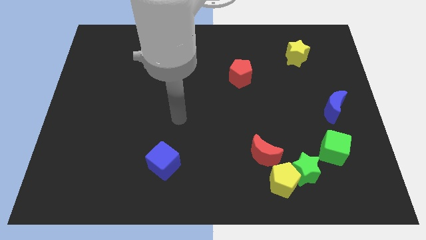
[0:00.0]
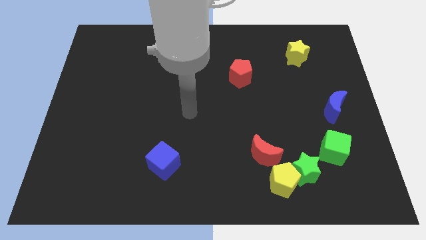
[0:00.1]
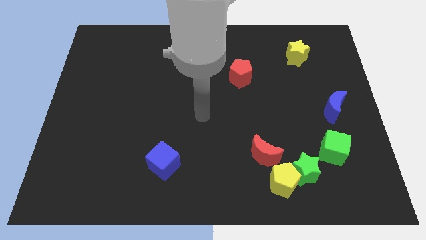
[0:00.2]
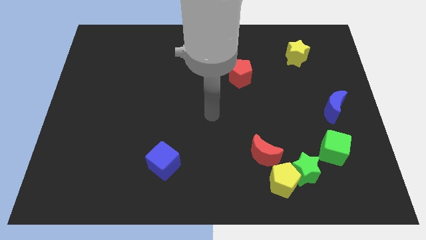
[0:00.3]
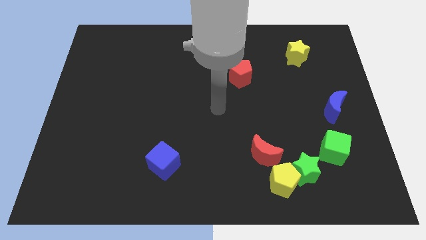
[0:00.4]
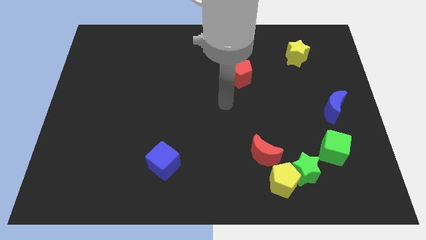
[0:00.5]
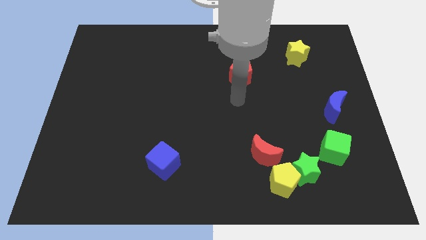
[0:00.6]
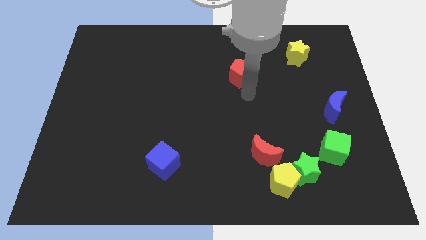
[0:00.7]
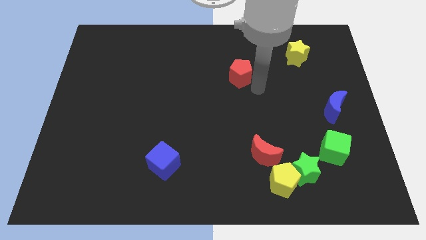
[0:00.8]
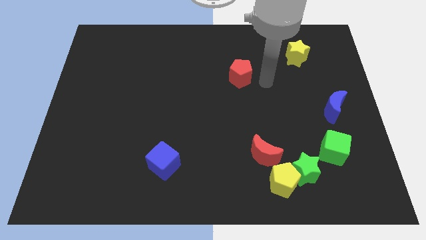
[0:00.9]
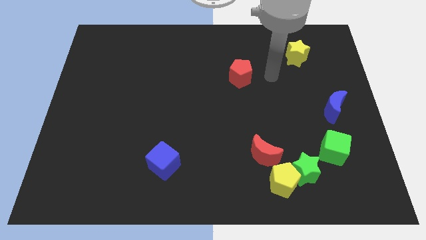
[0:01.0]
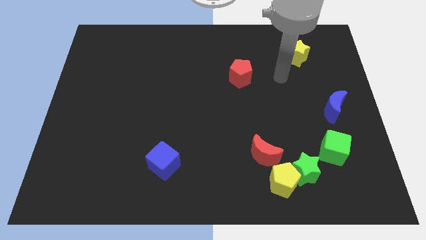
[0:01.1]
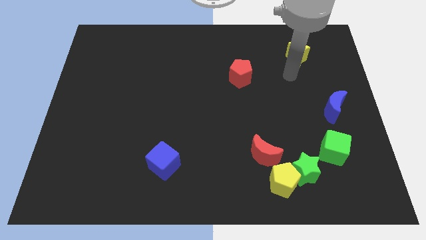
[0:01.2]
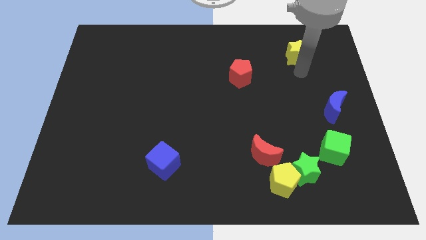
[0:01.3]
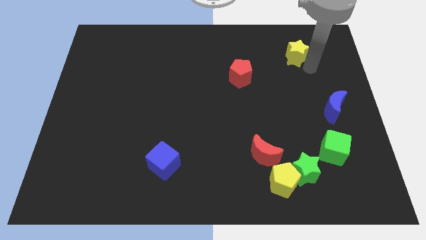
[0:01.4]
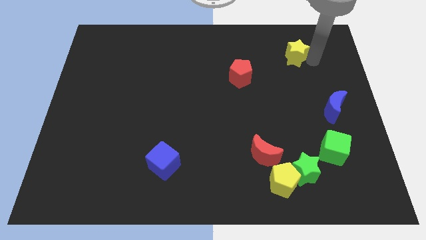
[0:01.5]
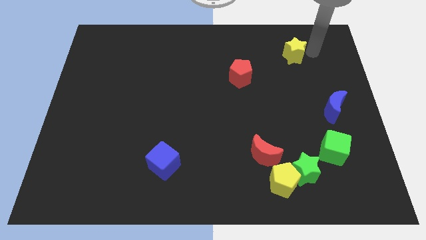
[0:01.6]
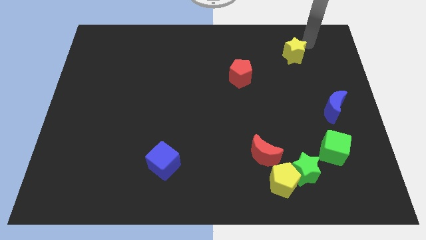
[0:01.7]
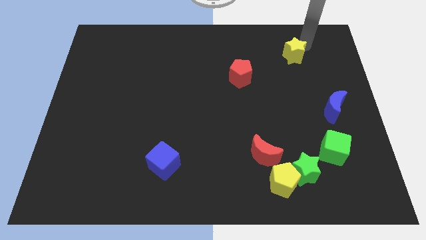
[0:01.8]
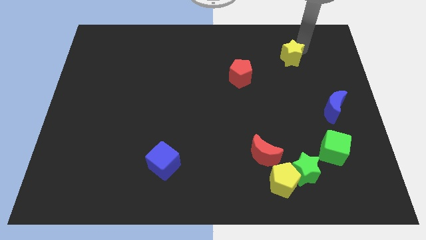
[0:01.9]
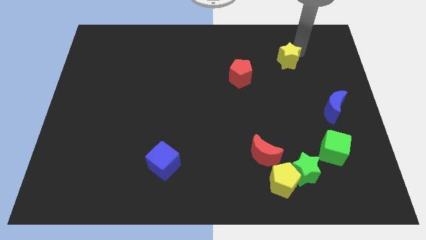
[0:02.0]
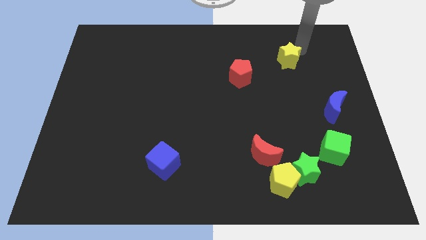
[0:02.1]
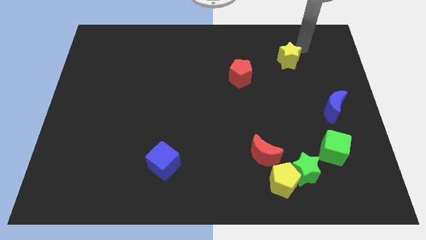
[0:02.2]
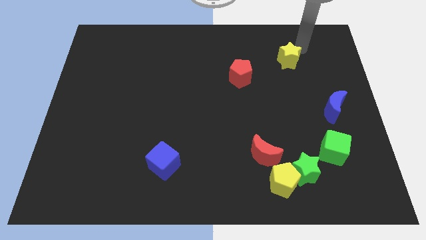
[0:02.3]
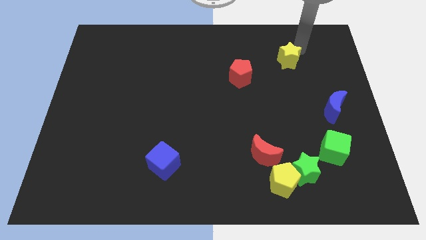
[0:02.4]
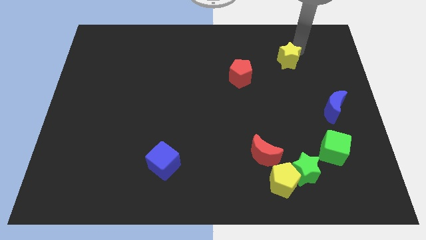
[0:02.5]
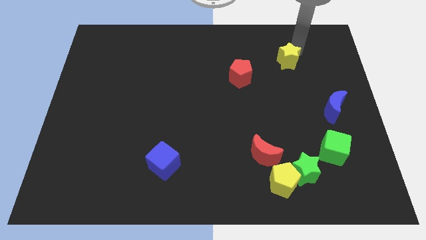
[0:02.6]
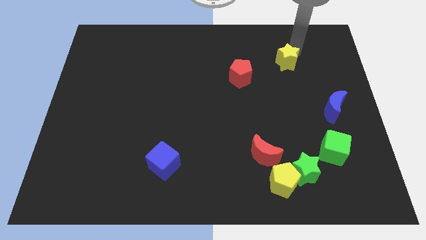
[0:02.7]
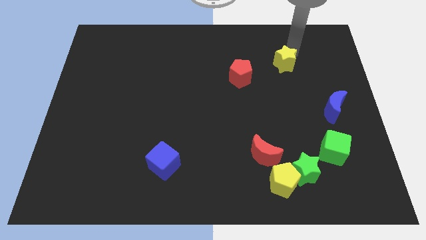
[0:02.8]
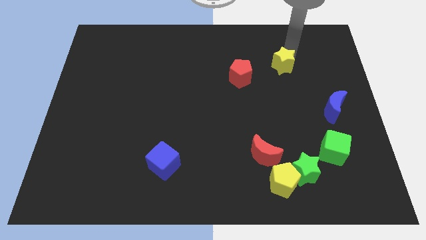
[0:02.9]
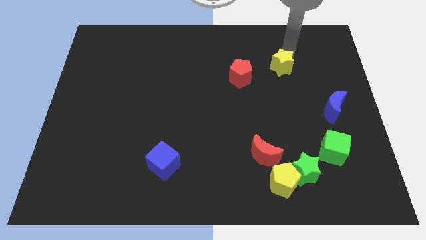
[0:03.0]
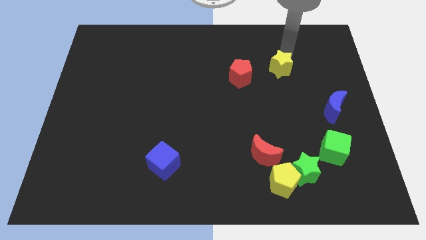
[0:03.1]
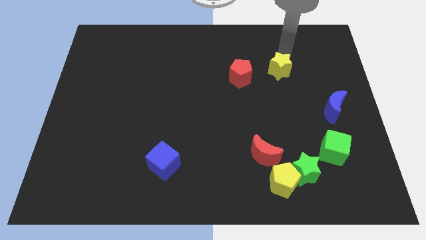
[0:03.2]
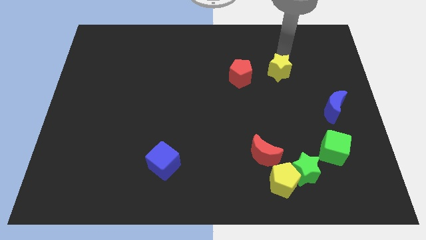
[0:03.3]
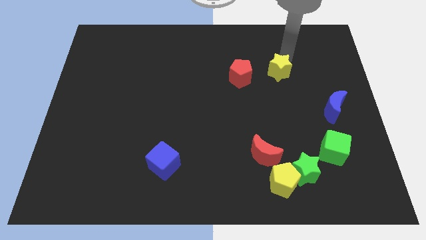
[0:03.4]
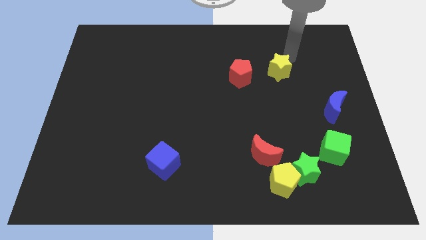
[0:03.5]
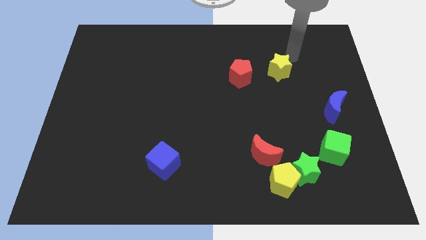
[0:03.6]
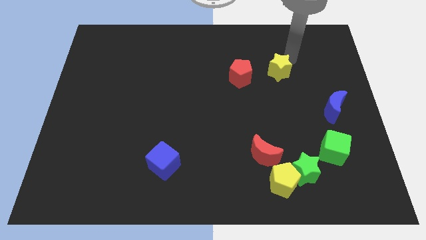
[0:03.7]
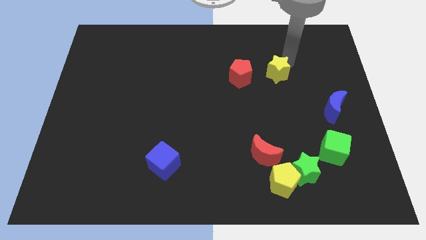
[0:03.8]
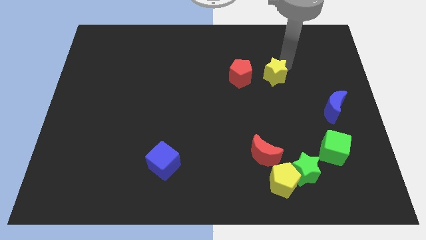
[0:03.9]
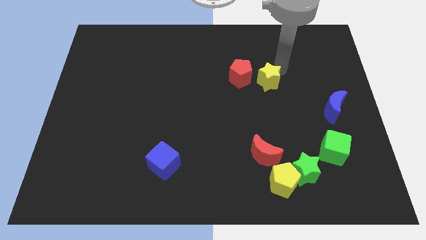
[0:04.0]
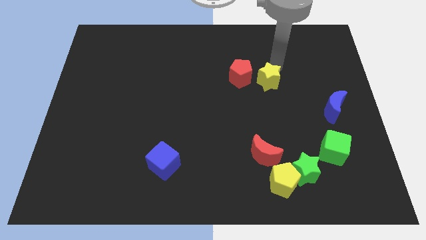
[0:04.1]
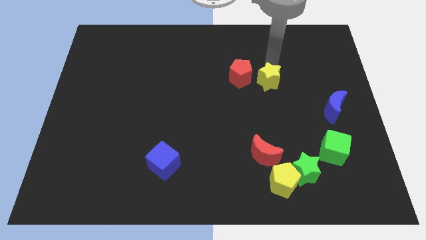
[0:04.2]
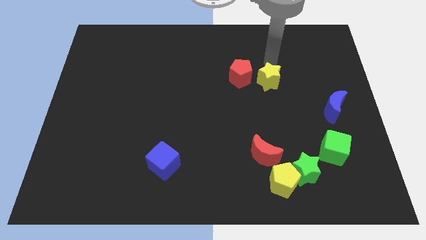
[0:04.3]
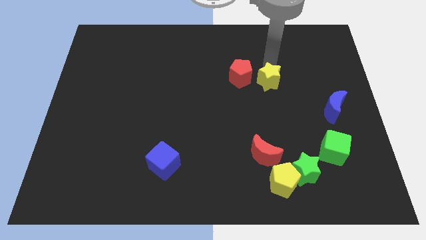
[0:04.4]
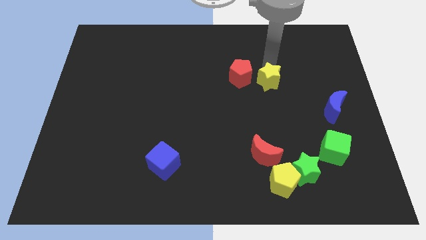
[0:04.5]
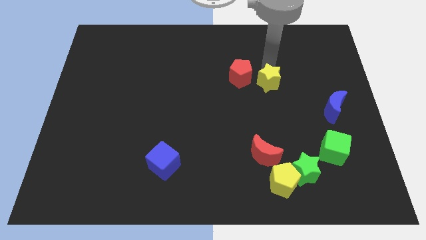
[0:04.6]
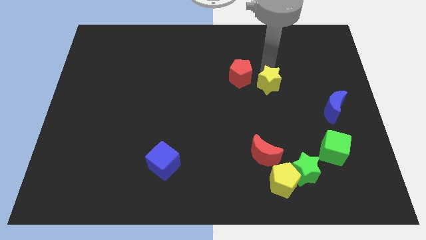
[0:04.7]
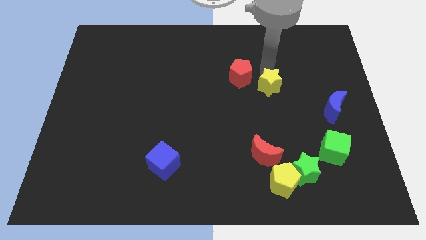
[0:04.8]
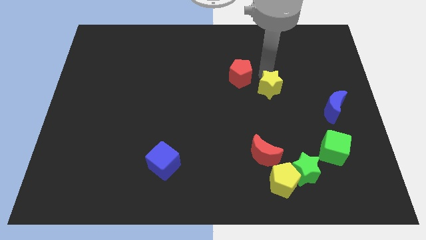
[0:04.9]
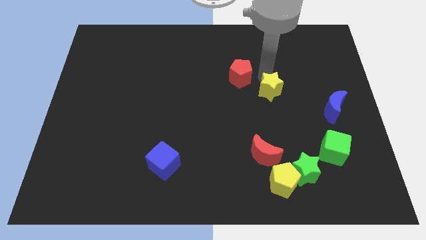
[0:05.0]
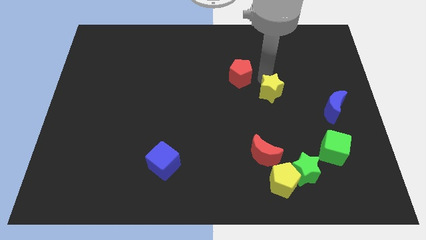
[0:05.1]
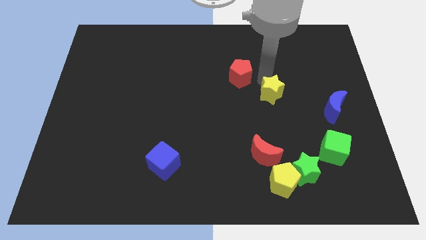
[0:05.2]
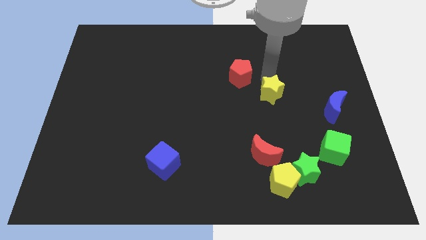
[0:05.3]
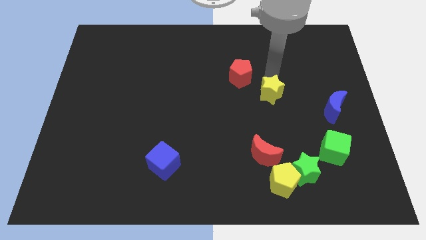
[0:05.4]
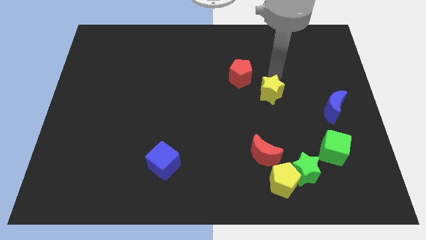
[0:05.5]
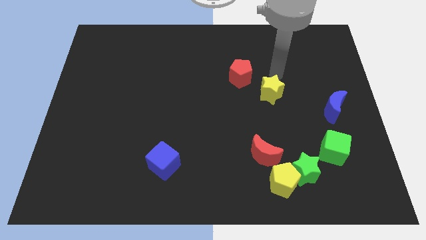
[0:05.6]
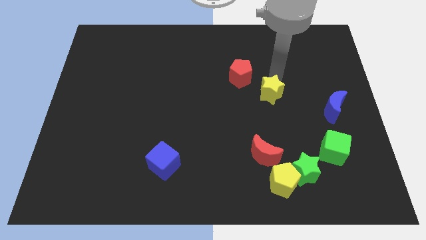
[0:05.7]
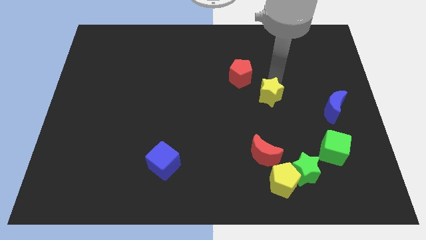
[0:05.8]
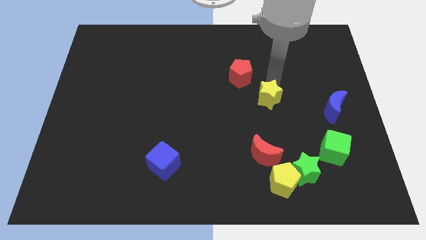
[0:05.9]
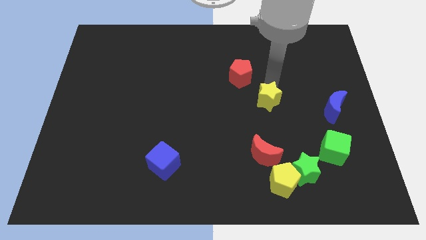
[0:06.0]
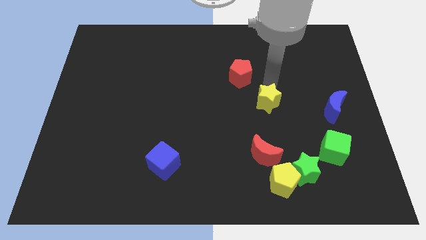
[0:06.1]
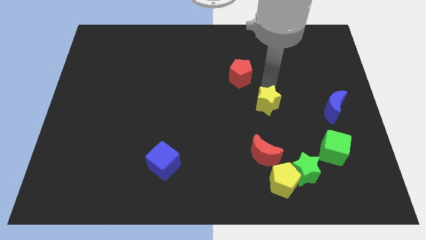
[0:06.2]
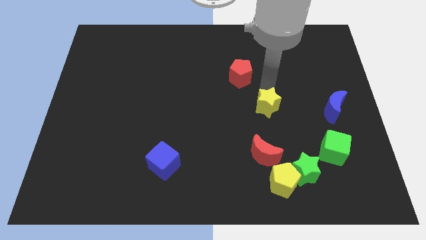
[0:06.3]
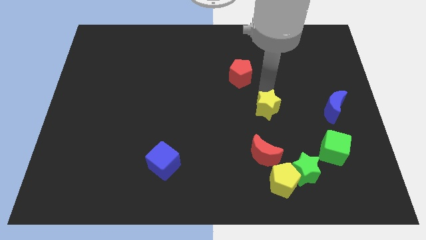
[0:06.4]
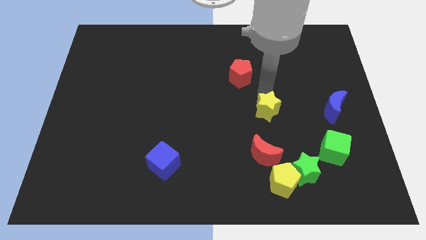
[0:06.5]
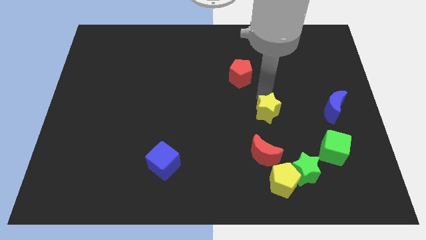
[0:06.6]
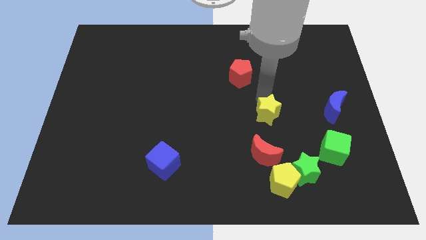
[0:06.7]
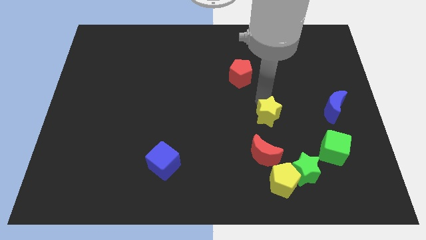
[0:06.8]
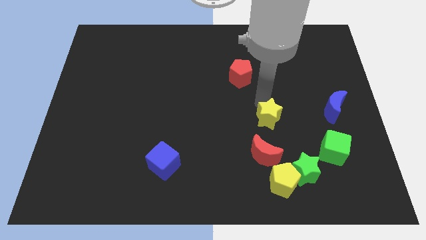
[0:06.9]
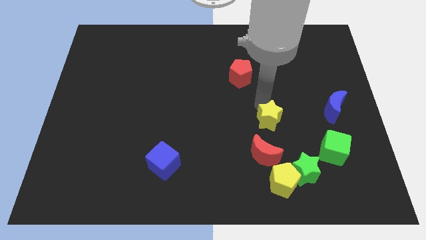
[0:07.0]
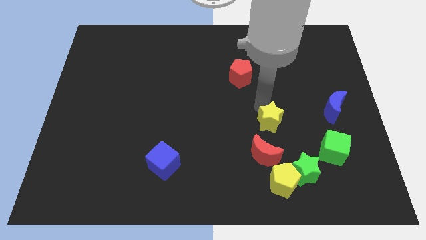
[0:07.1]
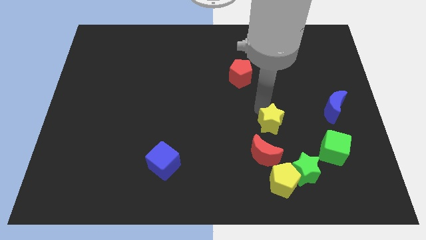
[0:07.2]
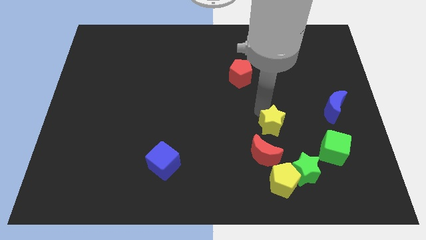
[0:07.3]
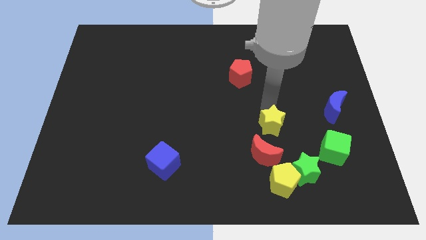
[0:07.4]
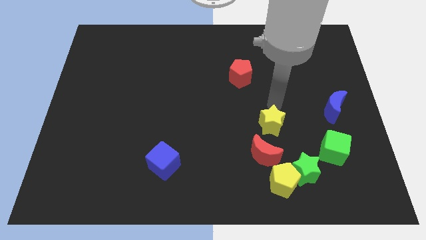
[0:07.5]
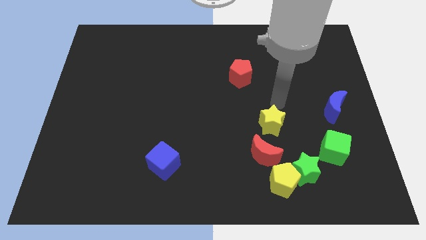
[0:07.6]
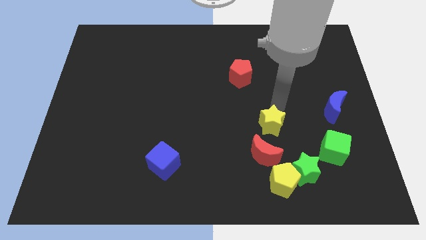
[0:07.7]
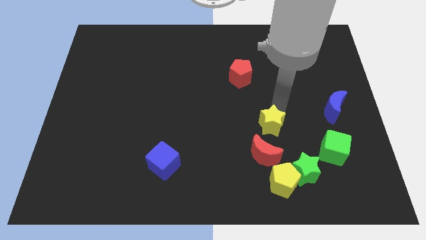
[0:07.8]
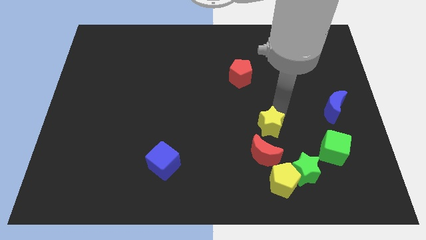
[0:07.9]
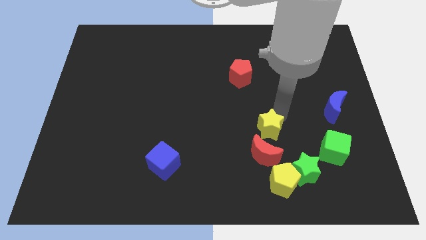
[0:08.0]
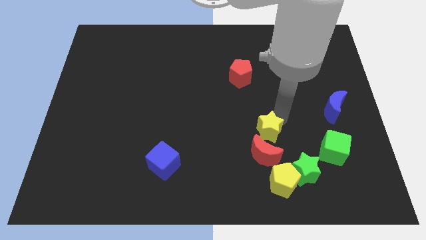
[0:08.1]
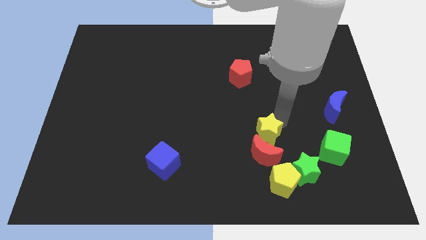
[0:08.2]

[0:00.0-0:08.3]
move the yellow star close to the red moon
